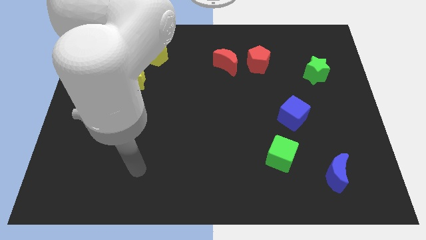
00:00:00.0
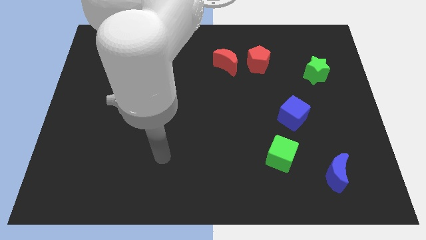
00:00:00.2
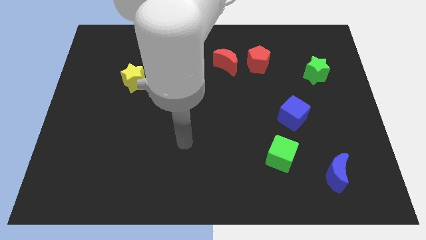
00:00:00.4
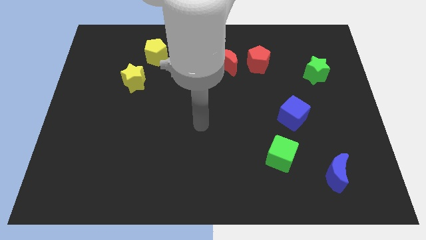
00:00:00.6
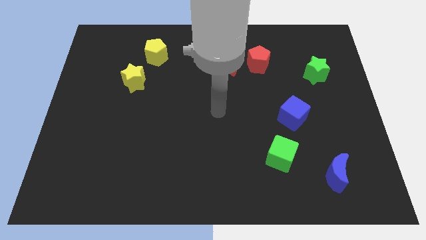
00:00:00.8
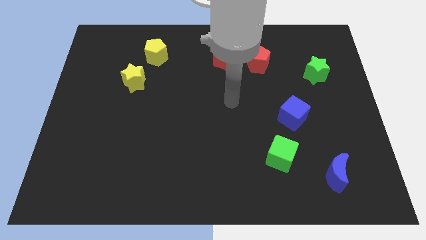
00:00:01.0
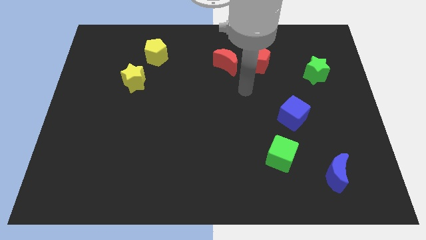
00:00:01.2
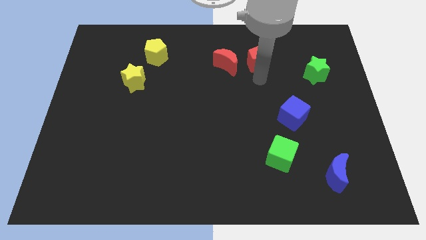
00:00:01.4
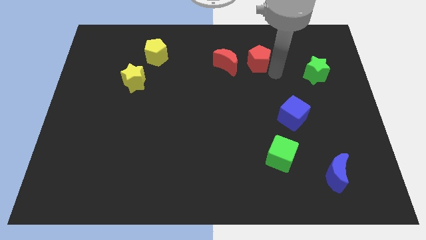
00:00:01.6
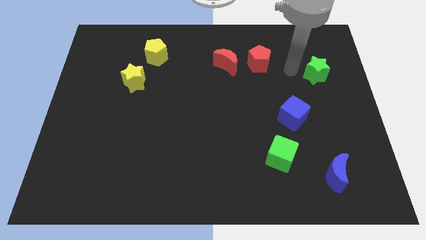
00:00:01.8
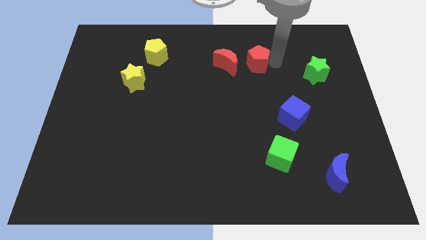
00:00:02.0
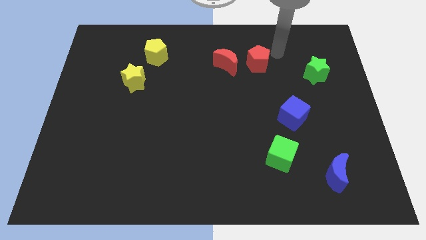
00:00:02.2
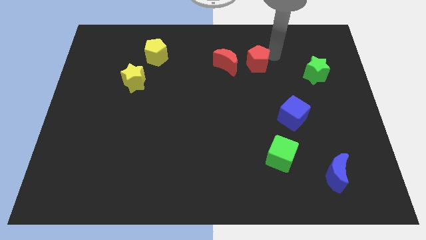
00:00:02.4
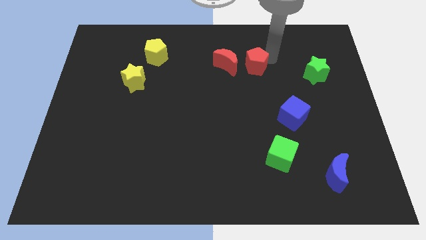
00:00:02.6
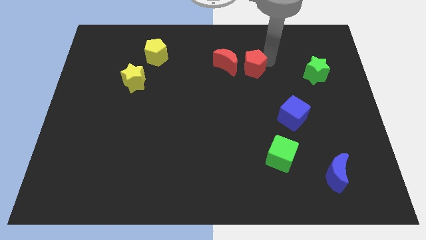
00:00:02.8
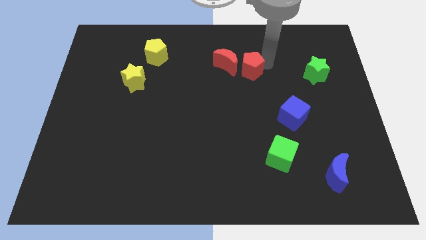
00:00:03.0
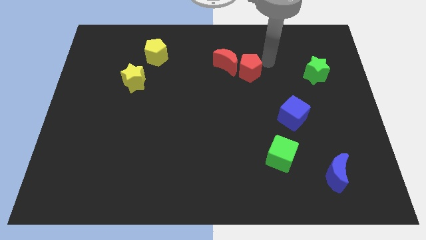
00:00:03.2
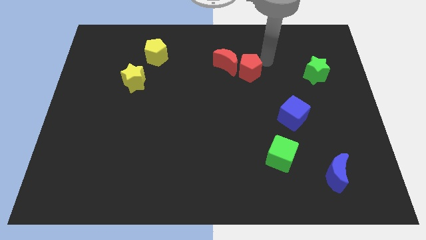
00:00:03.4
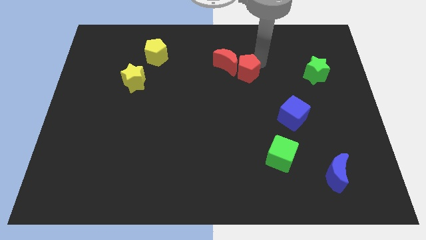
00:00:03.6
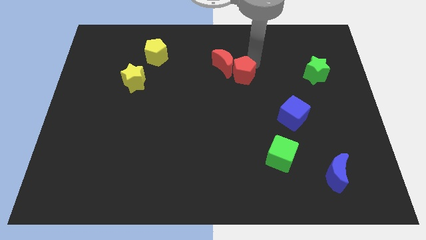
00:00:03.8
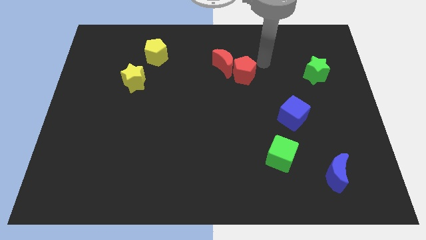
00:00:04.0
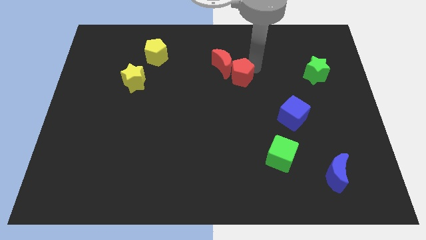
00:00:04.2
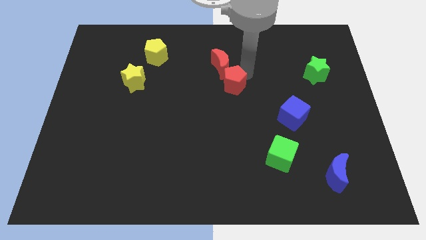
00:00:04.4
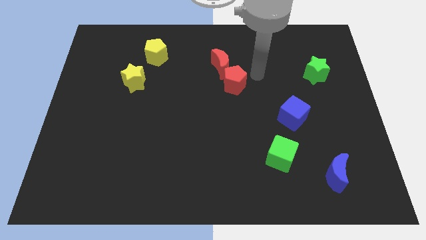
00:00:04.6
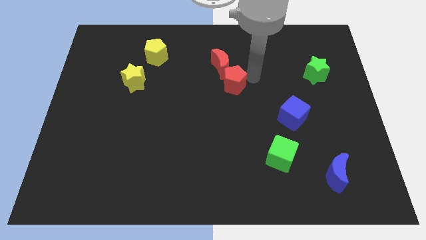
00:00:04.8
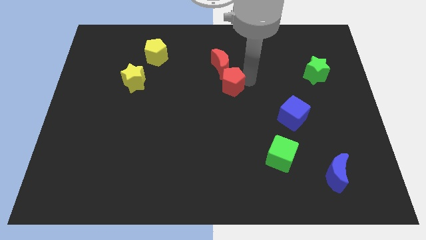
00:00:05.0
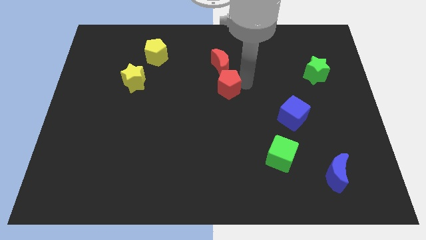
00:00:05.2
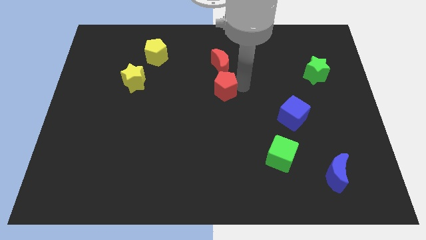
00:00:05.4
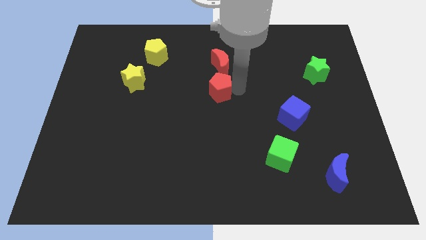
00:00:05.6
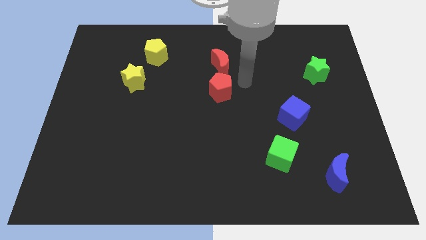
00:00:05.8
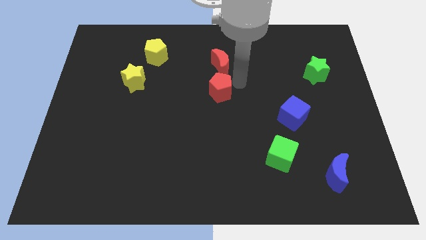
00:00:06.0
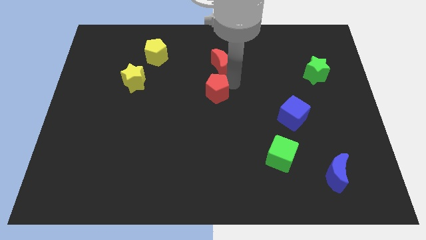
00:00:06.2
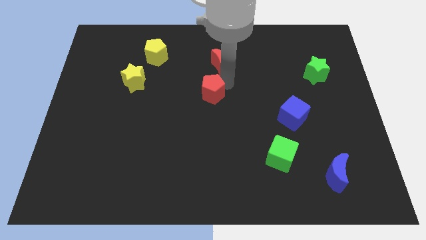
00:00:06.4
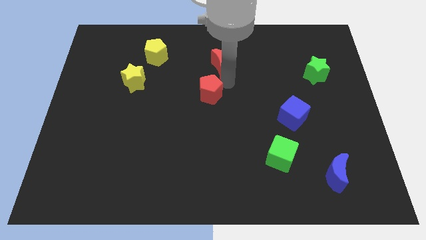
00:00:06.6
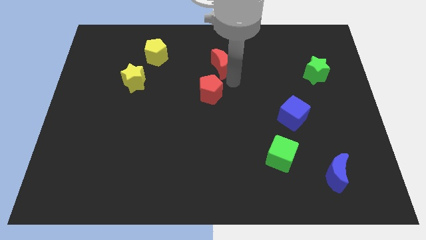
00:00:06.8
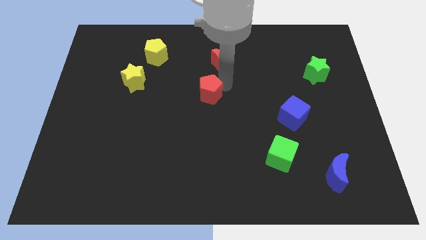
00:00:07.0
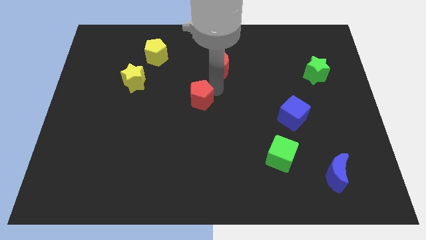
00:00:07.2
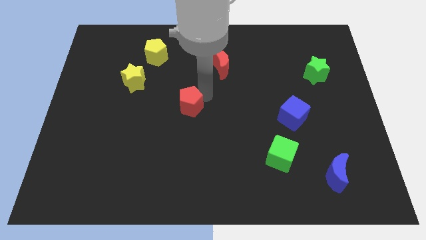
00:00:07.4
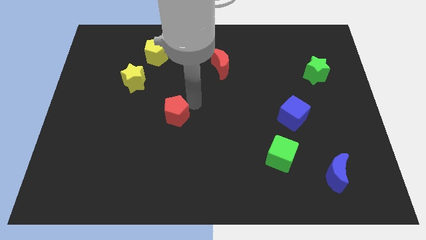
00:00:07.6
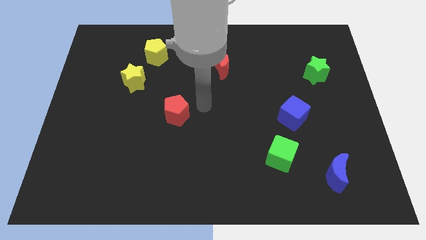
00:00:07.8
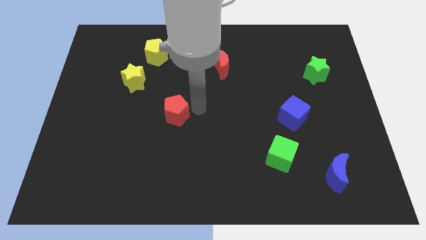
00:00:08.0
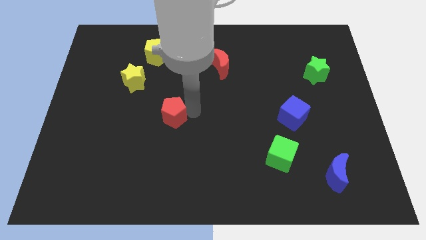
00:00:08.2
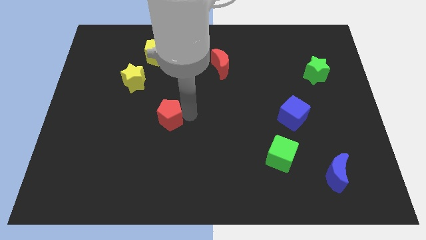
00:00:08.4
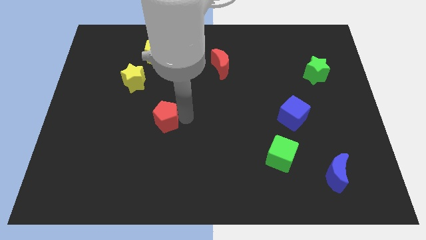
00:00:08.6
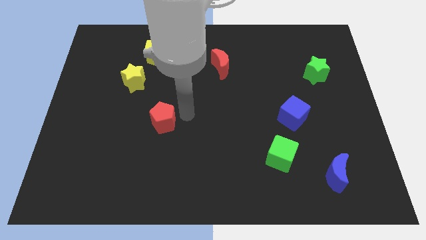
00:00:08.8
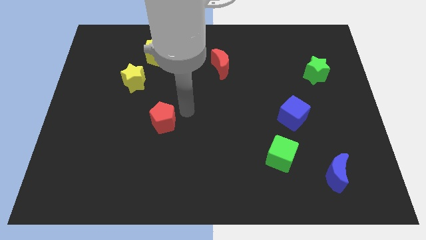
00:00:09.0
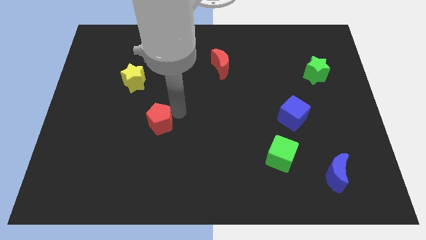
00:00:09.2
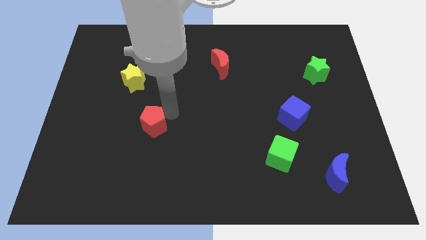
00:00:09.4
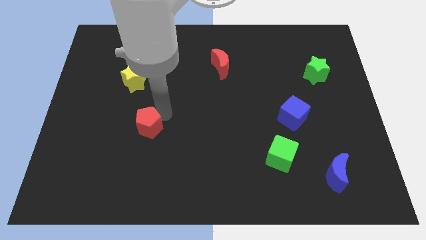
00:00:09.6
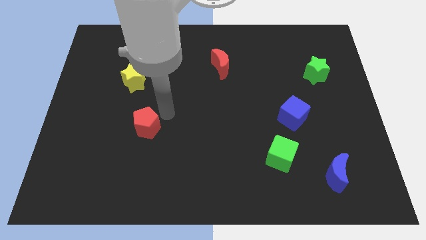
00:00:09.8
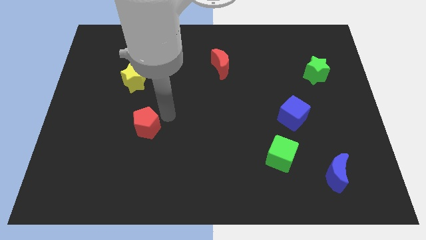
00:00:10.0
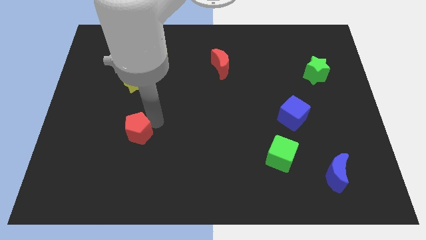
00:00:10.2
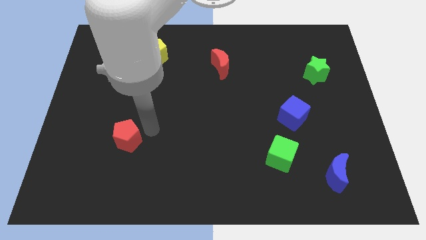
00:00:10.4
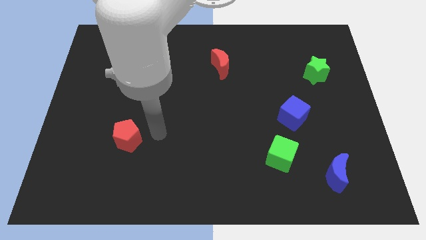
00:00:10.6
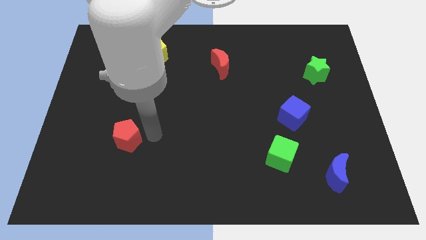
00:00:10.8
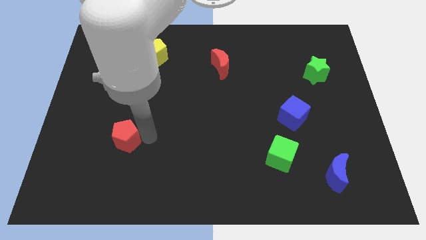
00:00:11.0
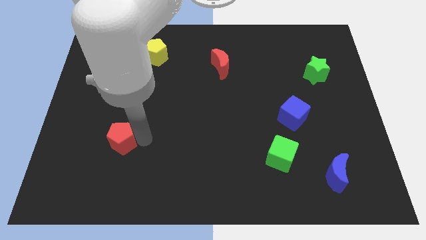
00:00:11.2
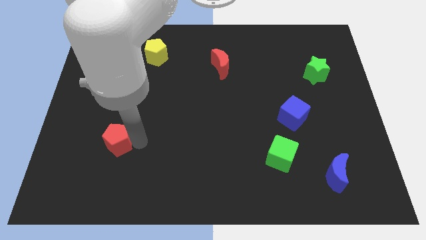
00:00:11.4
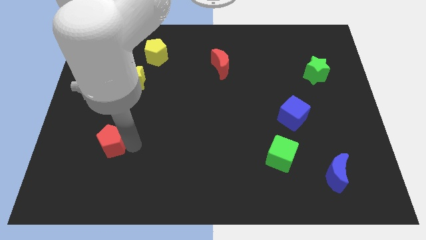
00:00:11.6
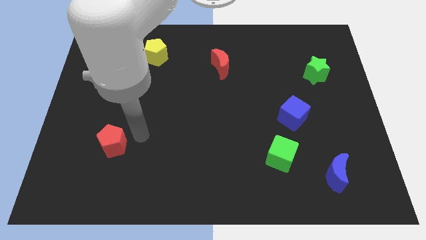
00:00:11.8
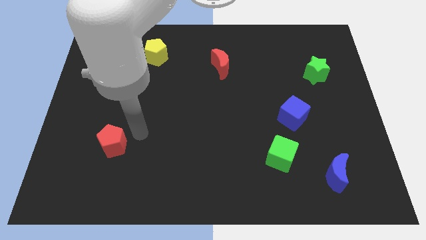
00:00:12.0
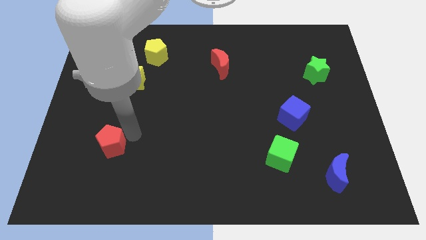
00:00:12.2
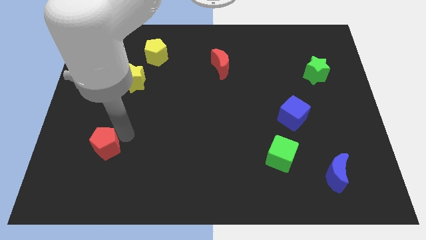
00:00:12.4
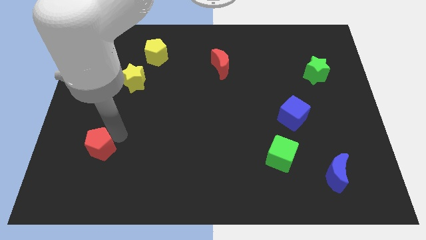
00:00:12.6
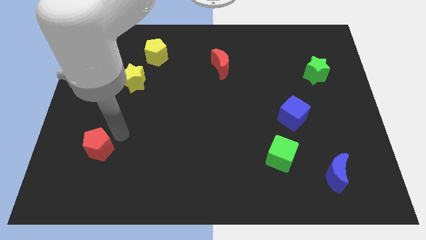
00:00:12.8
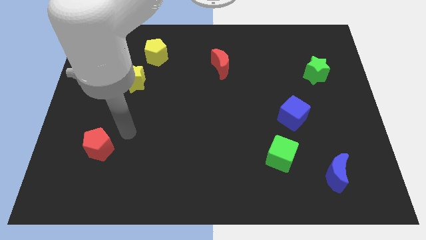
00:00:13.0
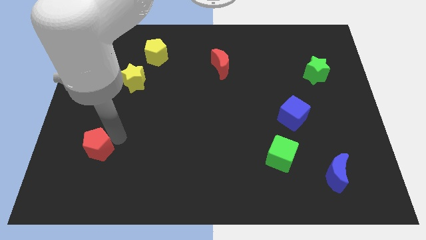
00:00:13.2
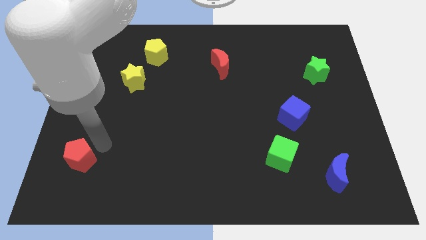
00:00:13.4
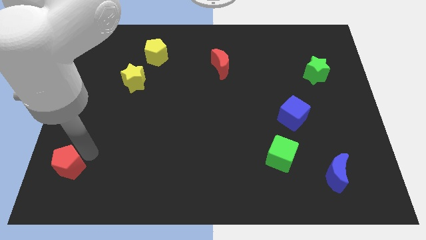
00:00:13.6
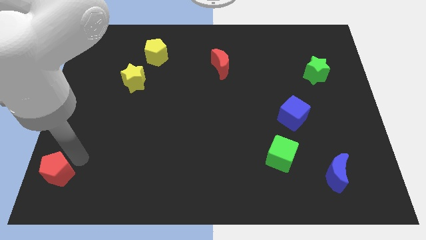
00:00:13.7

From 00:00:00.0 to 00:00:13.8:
slide the red pentagon to the lower left corner
